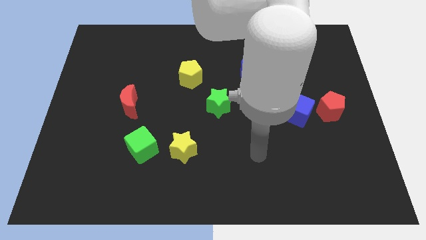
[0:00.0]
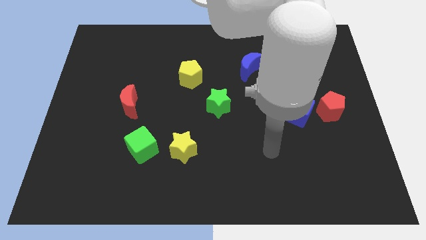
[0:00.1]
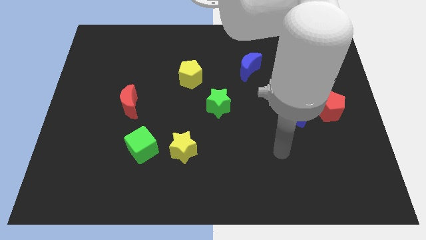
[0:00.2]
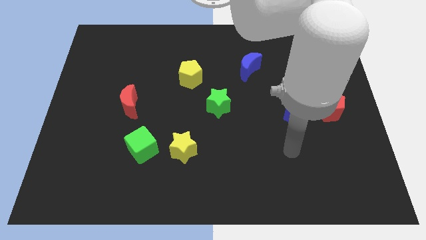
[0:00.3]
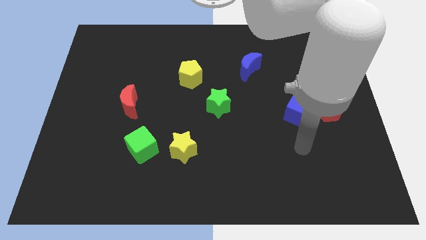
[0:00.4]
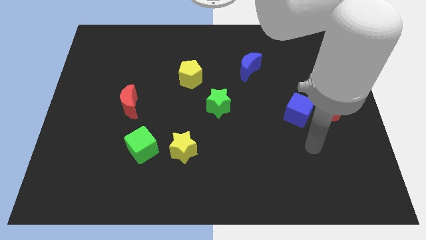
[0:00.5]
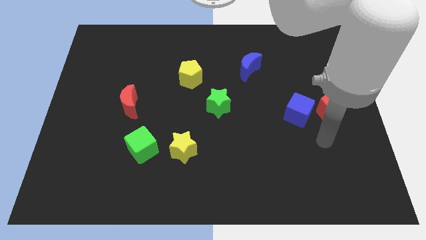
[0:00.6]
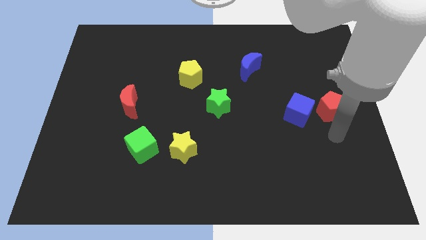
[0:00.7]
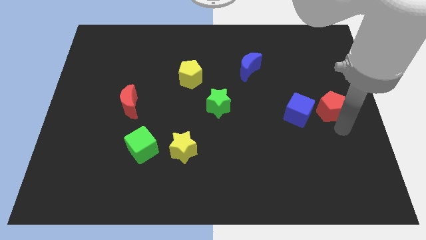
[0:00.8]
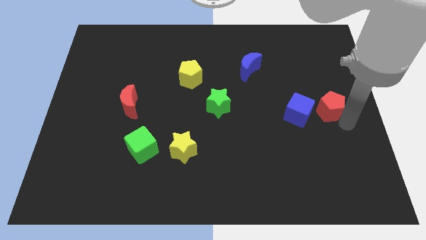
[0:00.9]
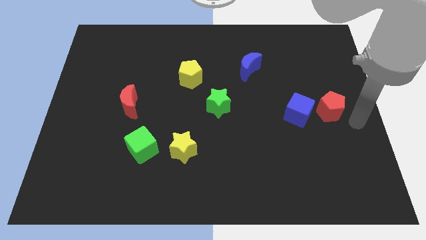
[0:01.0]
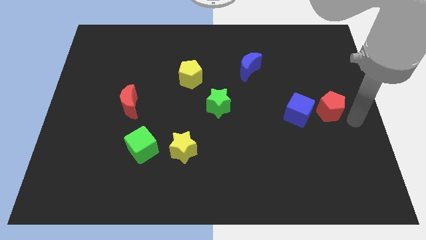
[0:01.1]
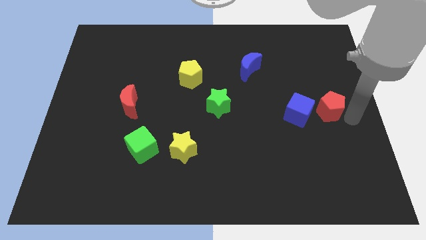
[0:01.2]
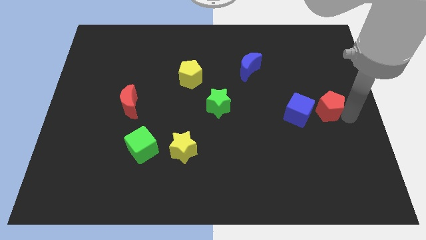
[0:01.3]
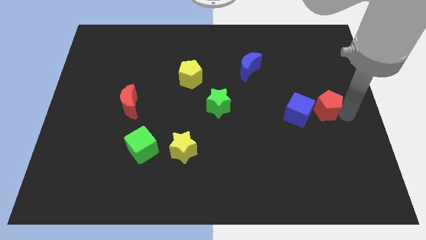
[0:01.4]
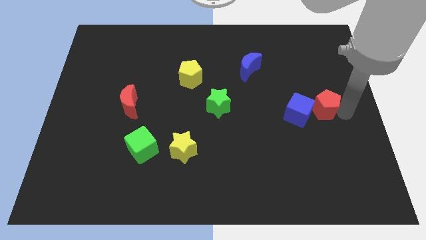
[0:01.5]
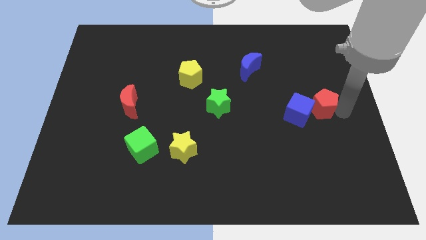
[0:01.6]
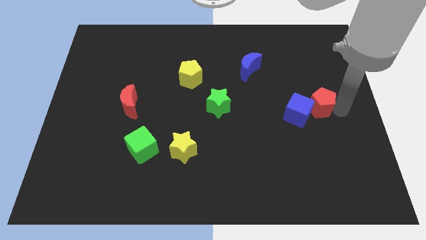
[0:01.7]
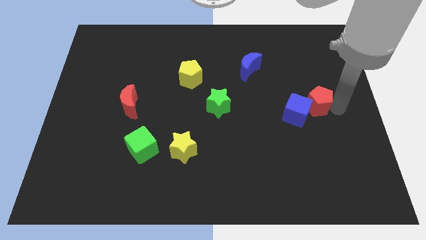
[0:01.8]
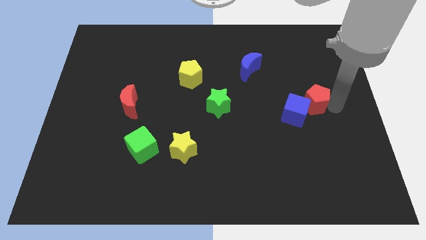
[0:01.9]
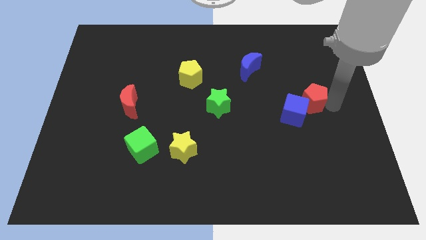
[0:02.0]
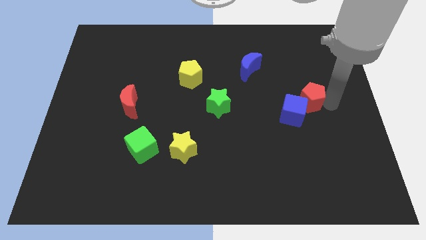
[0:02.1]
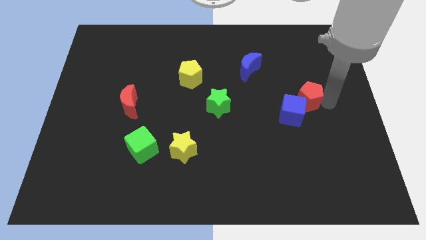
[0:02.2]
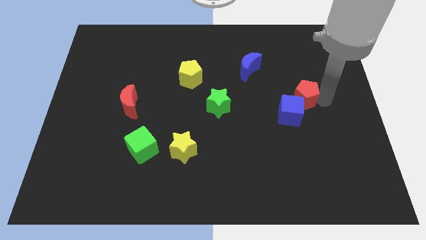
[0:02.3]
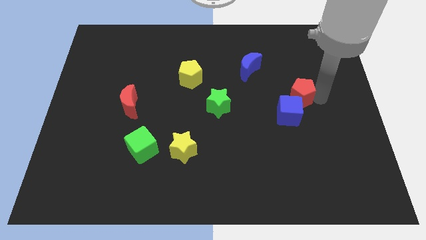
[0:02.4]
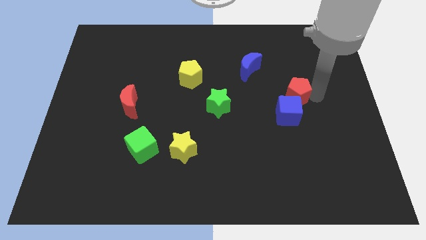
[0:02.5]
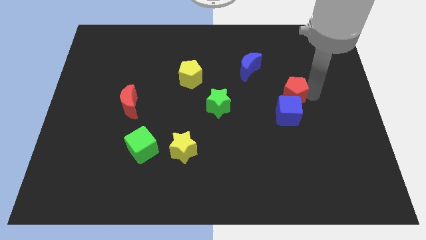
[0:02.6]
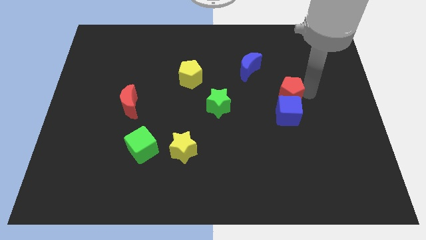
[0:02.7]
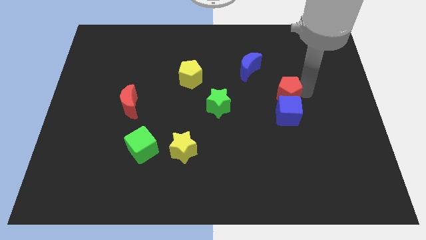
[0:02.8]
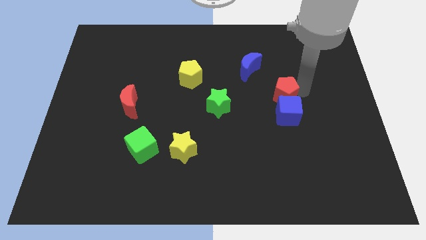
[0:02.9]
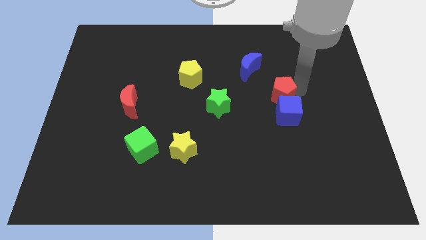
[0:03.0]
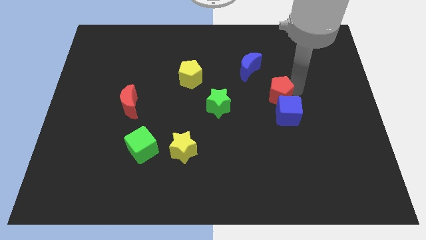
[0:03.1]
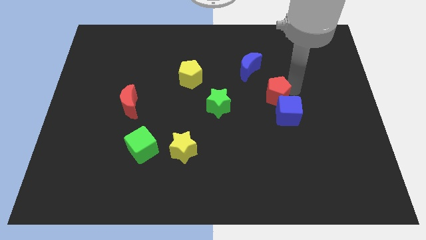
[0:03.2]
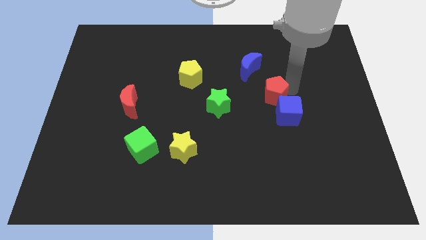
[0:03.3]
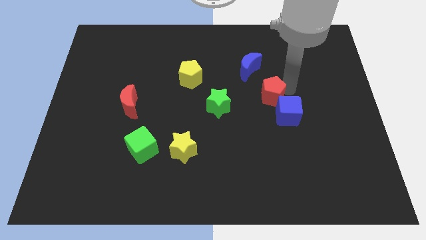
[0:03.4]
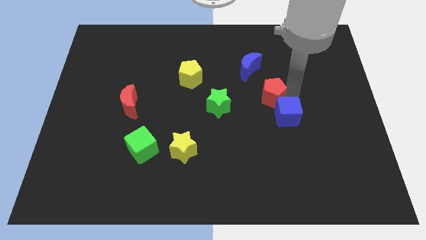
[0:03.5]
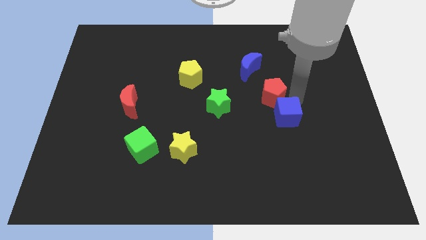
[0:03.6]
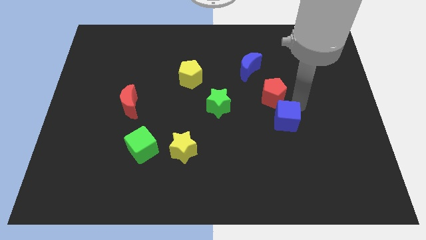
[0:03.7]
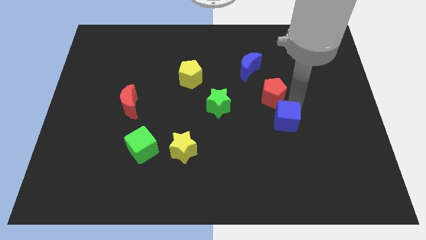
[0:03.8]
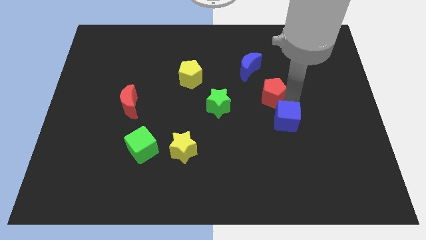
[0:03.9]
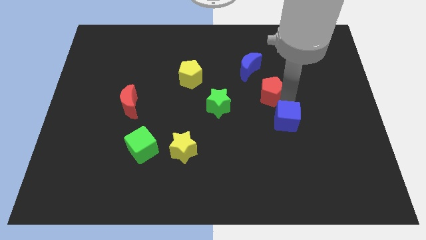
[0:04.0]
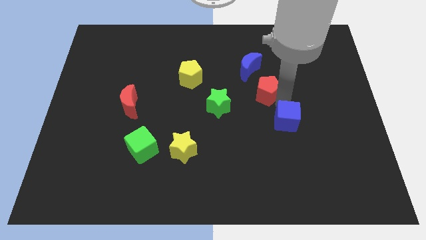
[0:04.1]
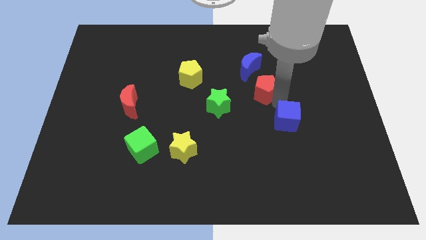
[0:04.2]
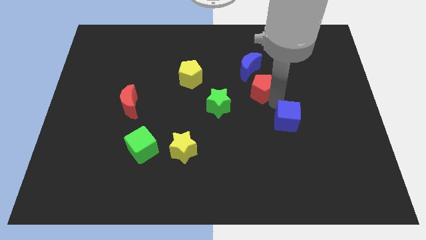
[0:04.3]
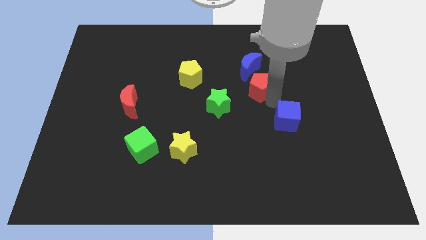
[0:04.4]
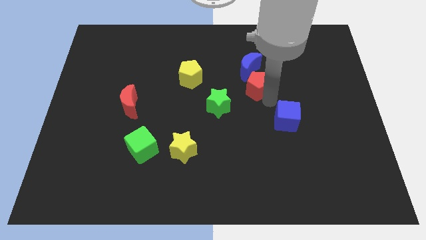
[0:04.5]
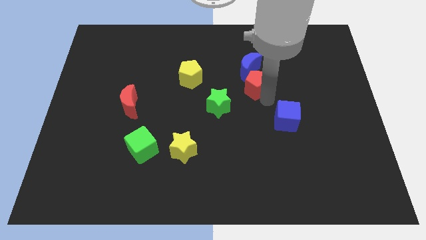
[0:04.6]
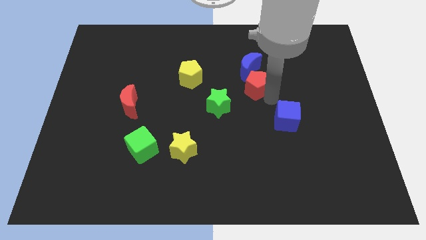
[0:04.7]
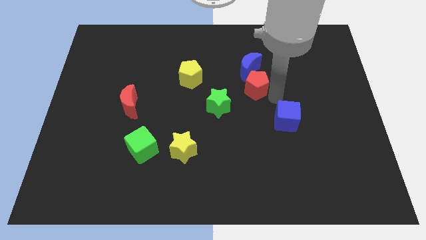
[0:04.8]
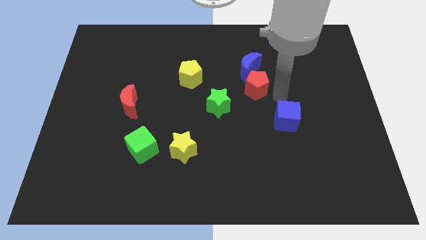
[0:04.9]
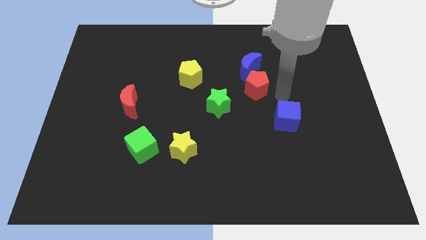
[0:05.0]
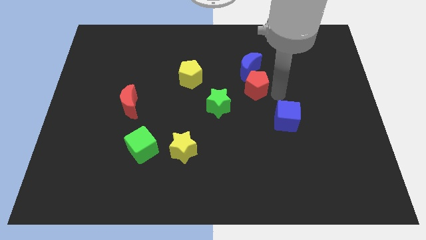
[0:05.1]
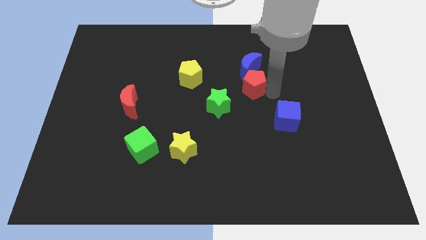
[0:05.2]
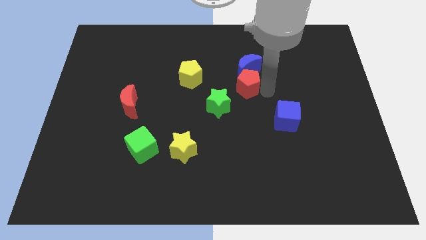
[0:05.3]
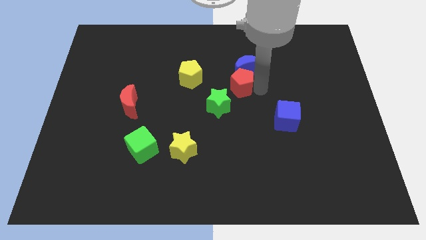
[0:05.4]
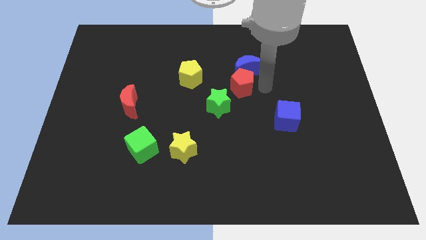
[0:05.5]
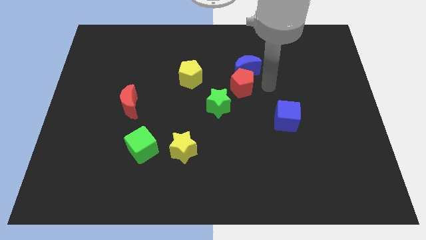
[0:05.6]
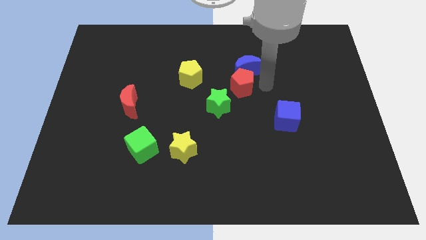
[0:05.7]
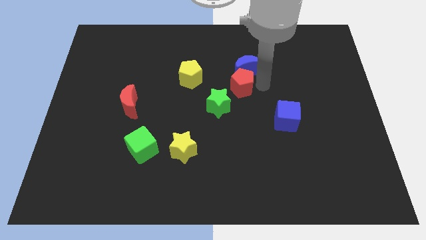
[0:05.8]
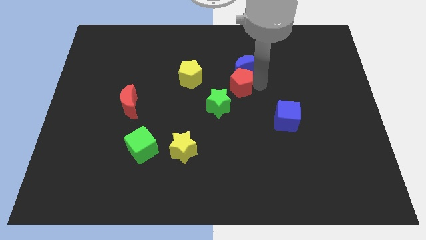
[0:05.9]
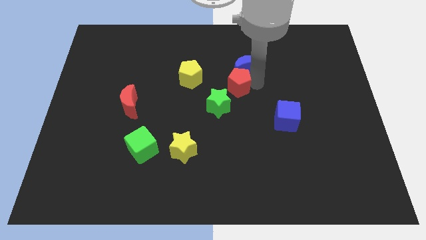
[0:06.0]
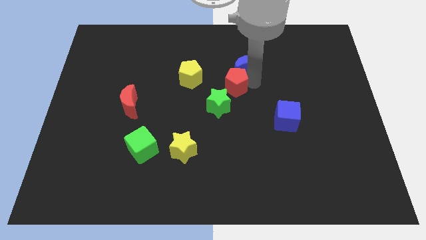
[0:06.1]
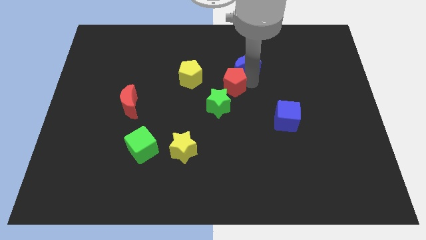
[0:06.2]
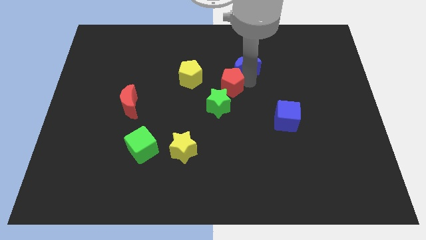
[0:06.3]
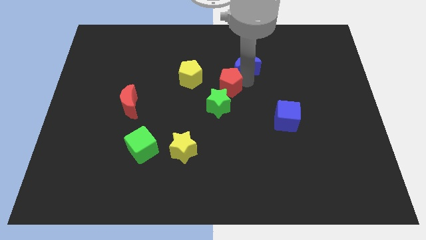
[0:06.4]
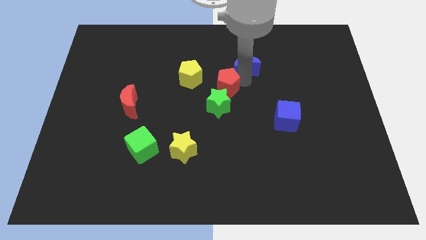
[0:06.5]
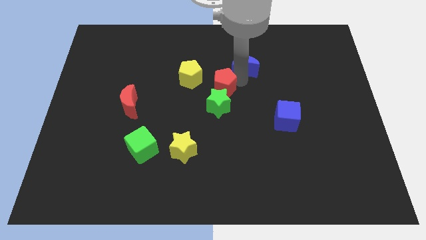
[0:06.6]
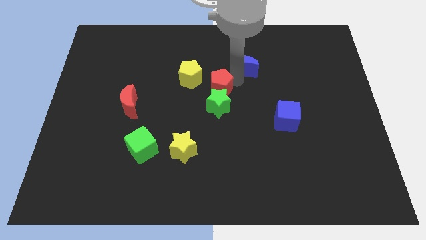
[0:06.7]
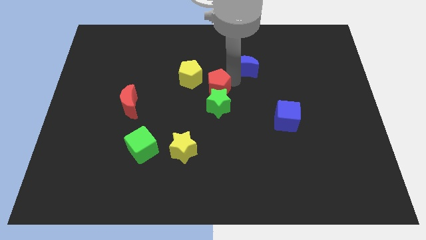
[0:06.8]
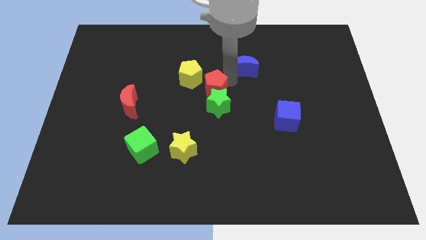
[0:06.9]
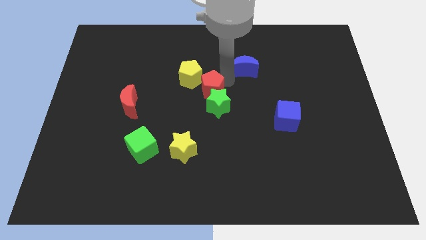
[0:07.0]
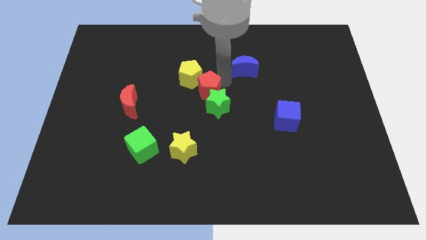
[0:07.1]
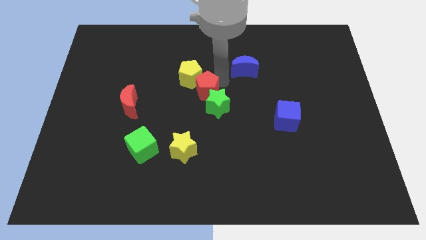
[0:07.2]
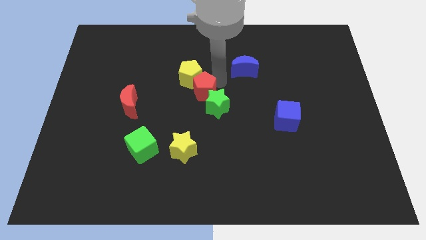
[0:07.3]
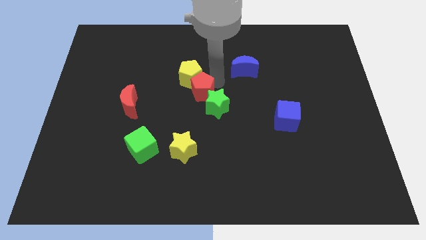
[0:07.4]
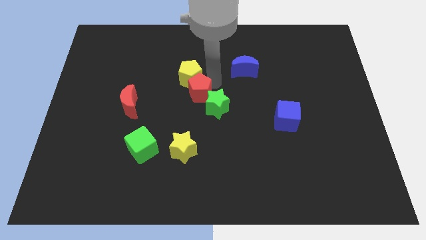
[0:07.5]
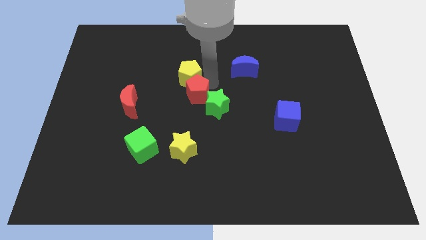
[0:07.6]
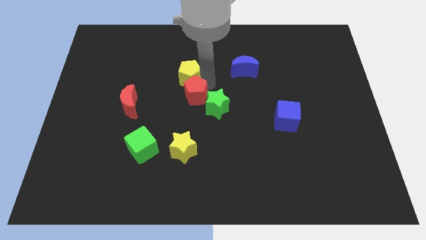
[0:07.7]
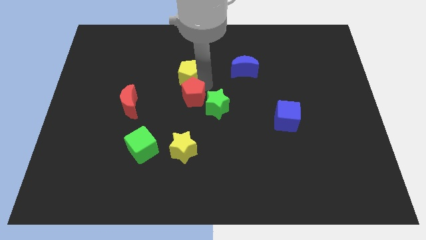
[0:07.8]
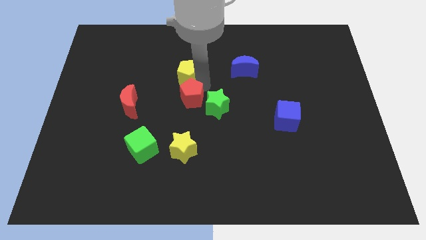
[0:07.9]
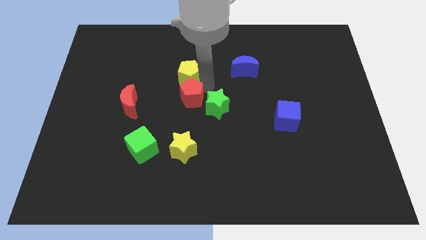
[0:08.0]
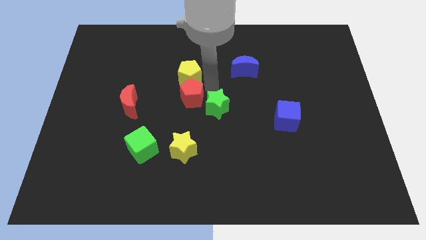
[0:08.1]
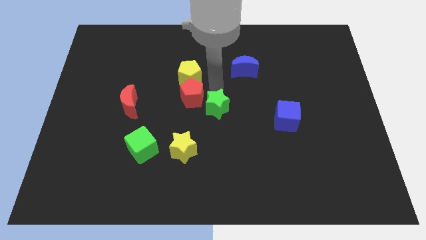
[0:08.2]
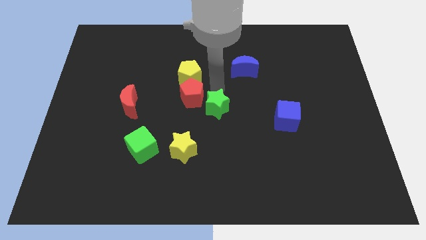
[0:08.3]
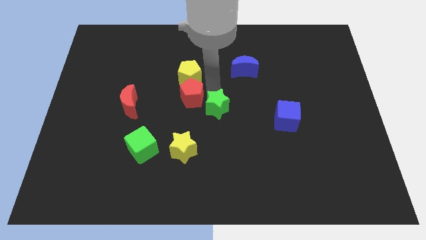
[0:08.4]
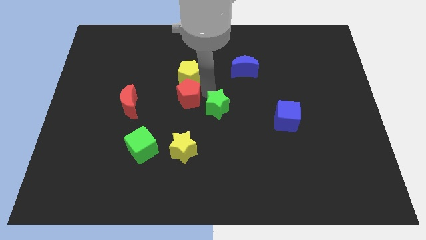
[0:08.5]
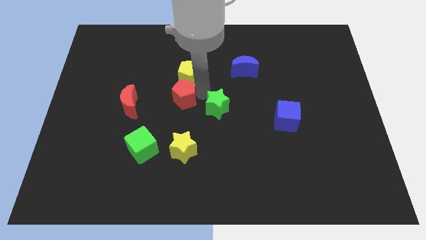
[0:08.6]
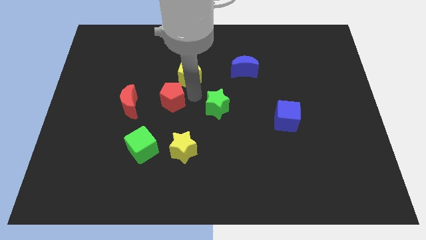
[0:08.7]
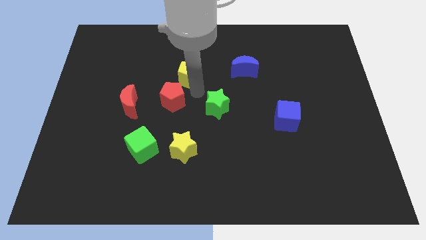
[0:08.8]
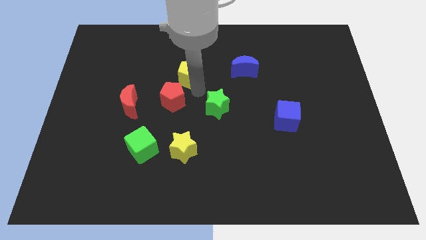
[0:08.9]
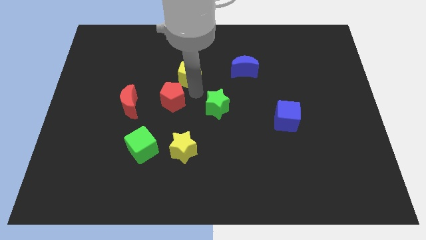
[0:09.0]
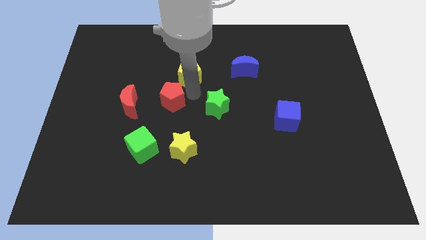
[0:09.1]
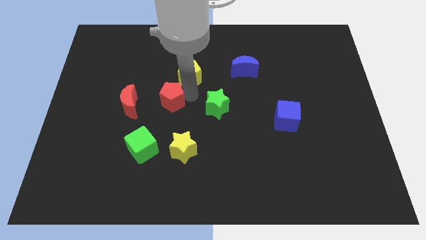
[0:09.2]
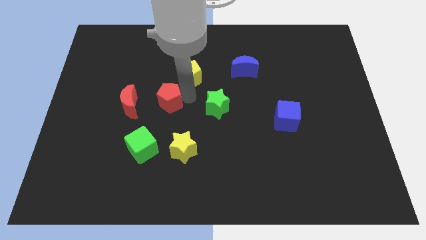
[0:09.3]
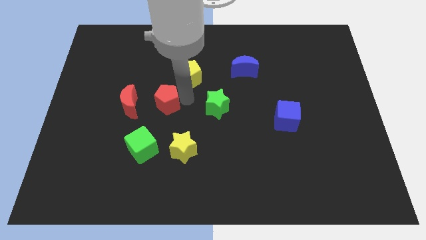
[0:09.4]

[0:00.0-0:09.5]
slide the red pentagon above the green cube
